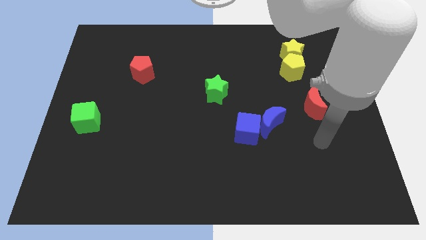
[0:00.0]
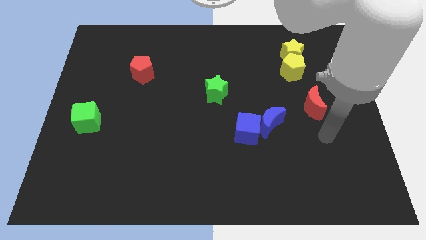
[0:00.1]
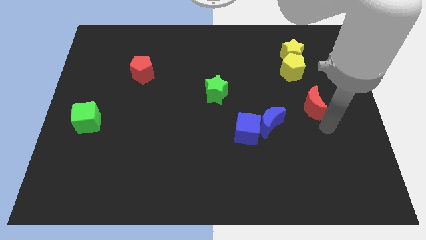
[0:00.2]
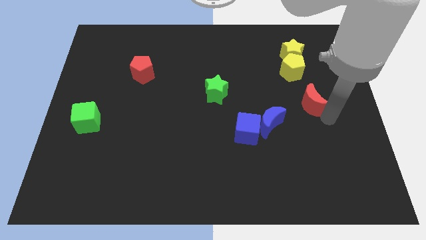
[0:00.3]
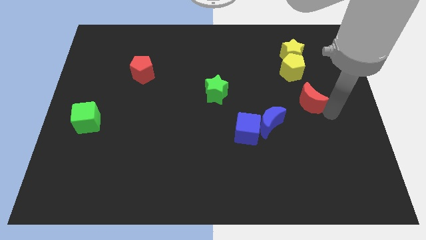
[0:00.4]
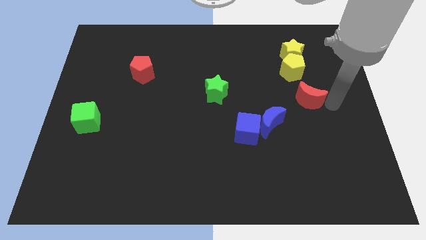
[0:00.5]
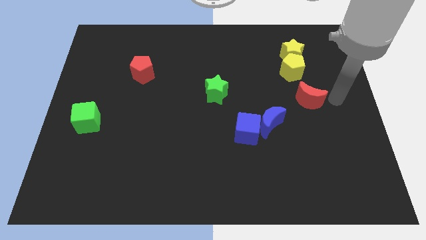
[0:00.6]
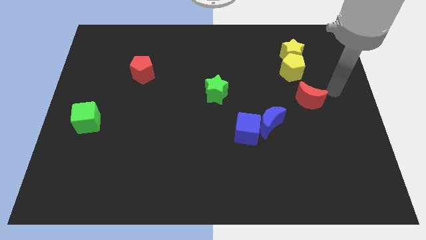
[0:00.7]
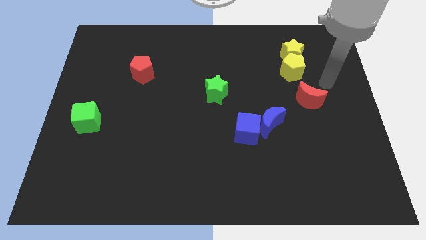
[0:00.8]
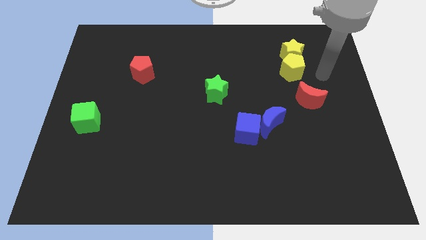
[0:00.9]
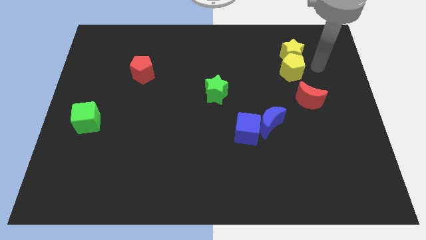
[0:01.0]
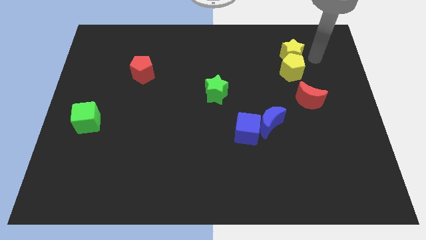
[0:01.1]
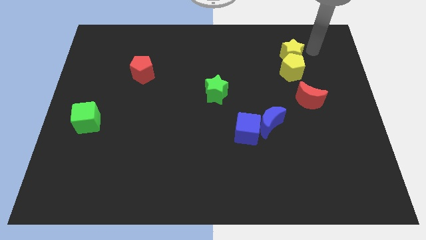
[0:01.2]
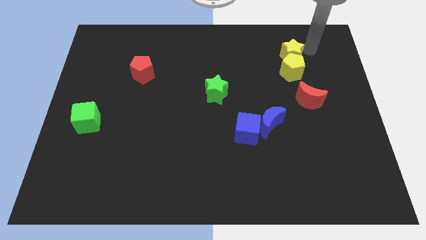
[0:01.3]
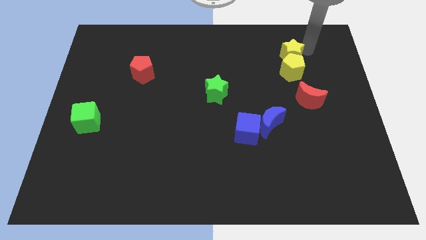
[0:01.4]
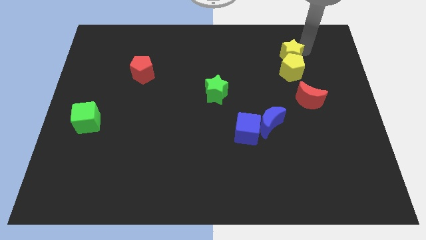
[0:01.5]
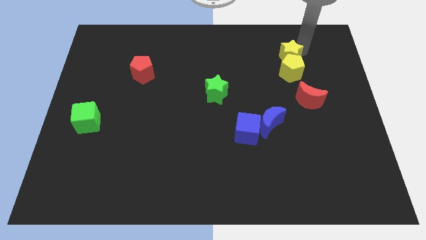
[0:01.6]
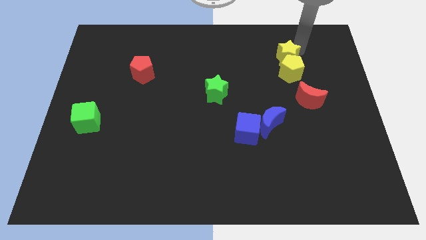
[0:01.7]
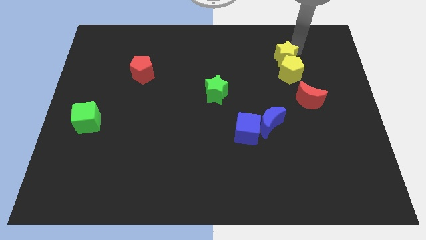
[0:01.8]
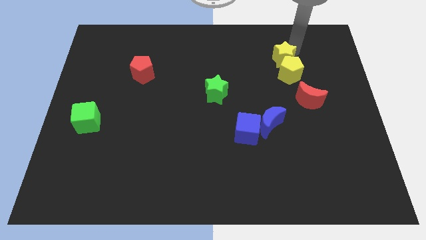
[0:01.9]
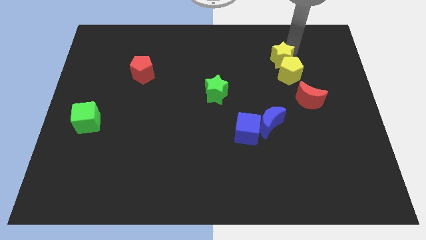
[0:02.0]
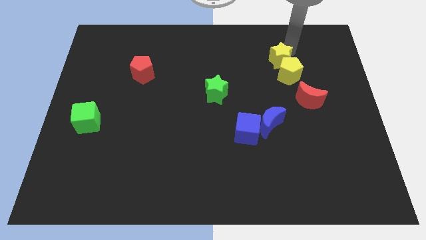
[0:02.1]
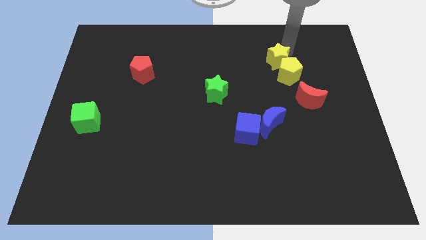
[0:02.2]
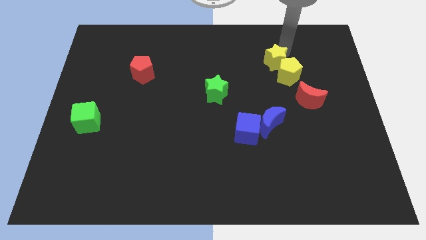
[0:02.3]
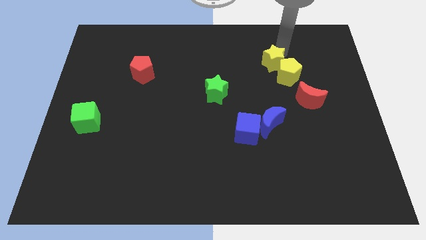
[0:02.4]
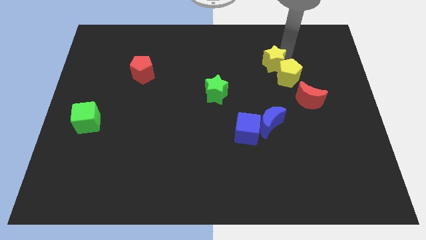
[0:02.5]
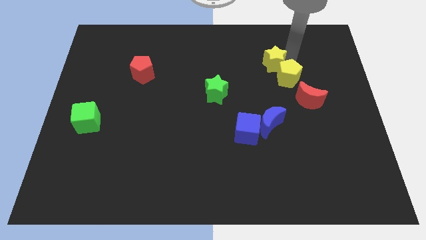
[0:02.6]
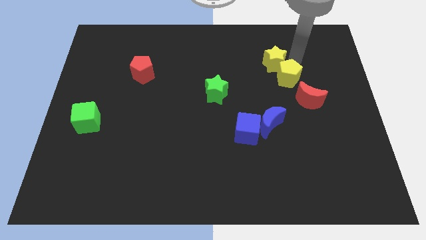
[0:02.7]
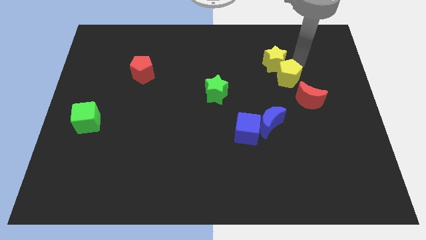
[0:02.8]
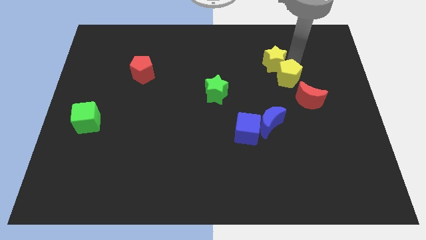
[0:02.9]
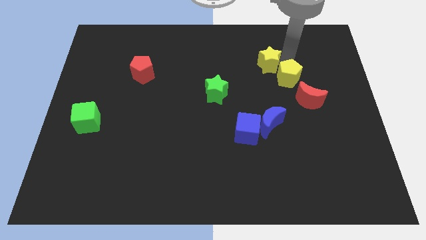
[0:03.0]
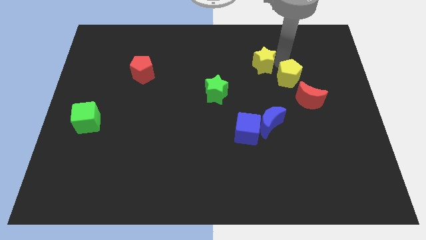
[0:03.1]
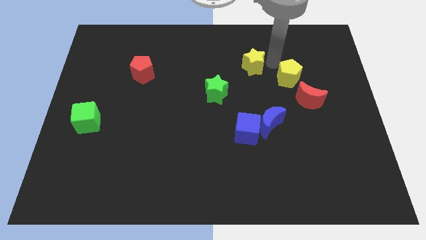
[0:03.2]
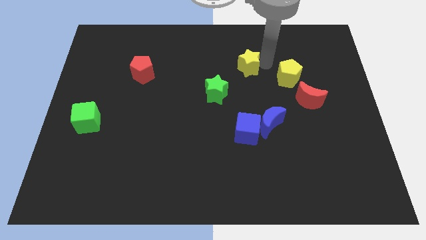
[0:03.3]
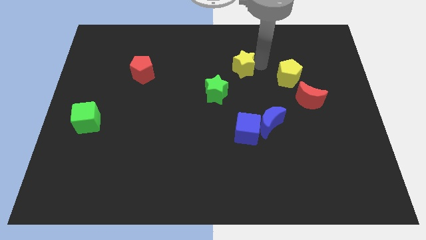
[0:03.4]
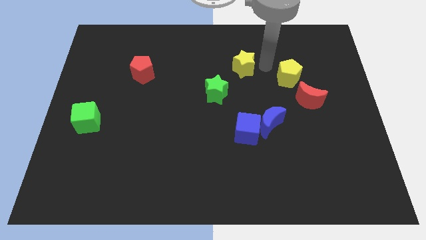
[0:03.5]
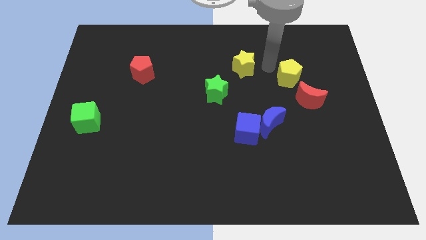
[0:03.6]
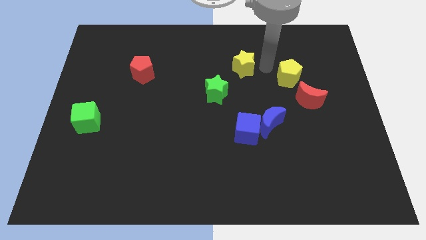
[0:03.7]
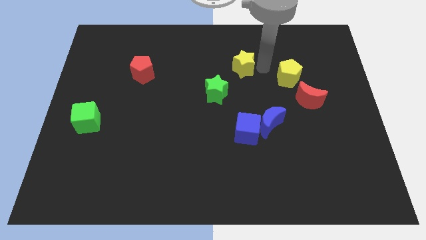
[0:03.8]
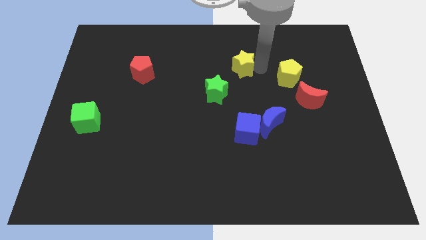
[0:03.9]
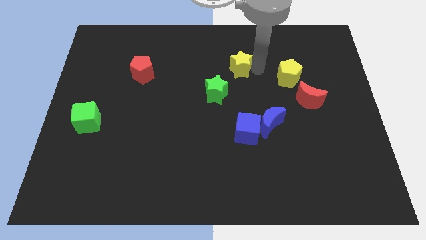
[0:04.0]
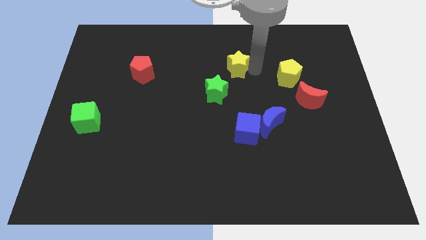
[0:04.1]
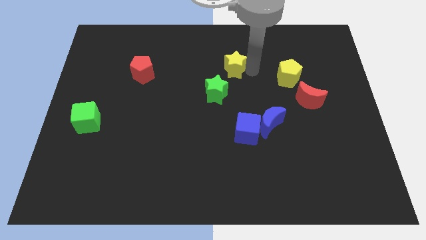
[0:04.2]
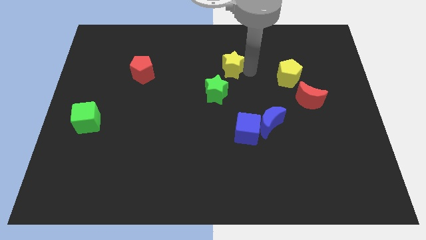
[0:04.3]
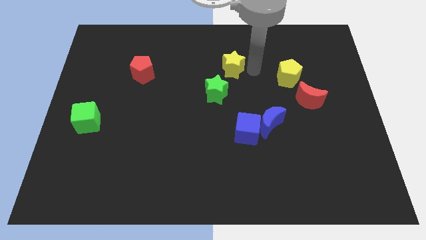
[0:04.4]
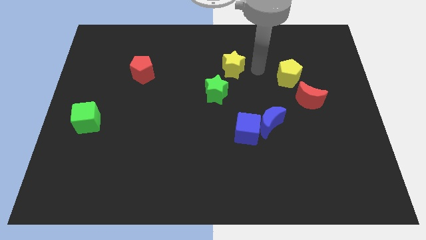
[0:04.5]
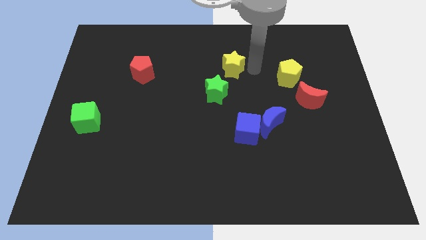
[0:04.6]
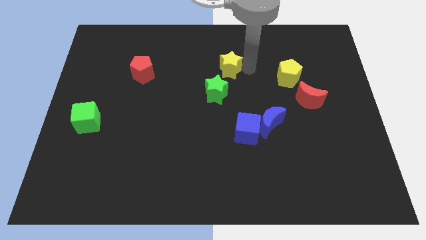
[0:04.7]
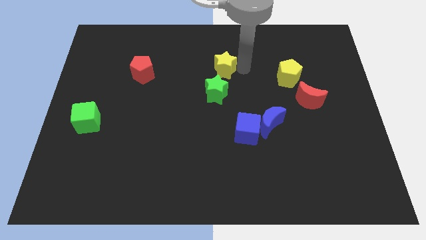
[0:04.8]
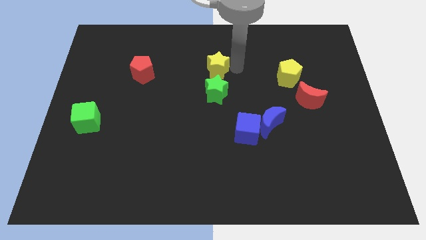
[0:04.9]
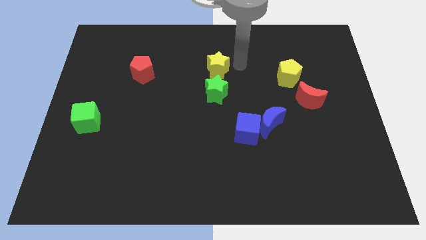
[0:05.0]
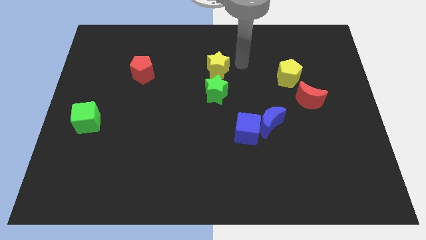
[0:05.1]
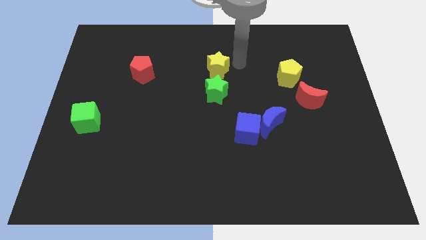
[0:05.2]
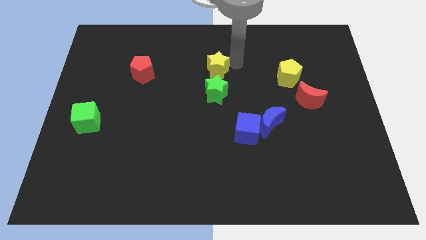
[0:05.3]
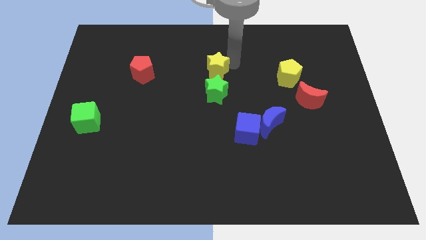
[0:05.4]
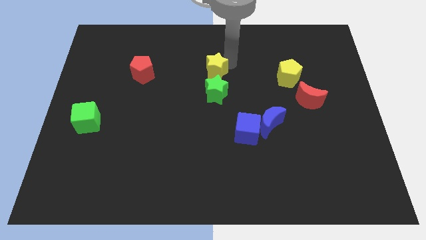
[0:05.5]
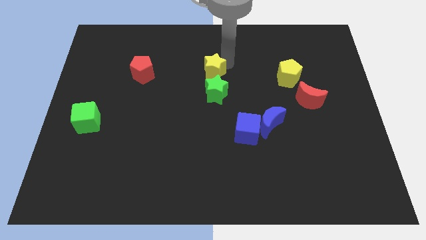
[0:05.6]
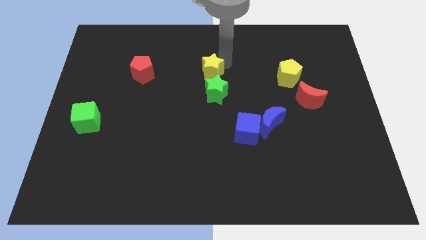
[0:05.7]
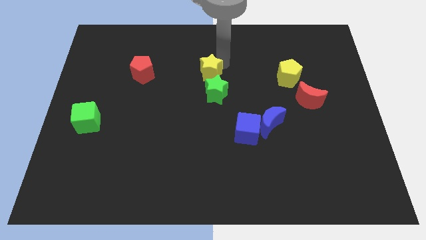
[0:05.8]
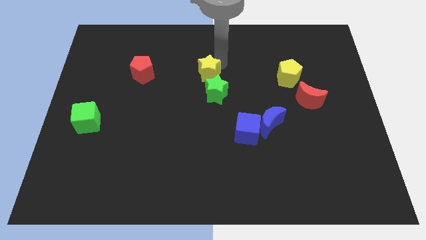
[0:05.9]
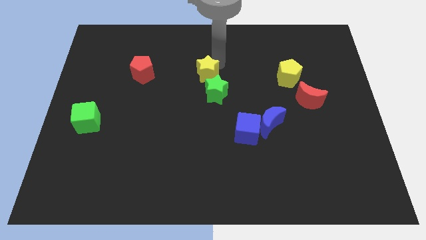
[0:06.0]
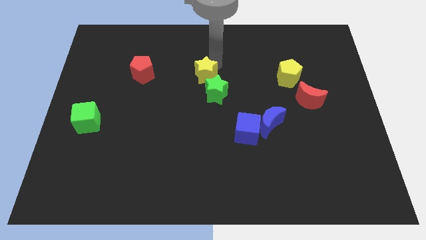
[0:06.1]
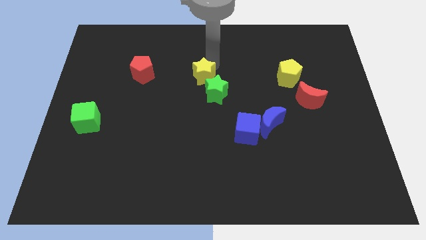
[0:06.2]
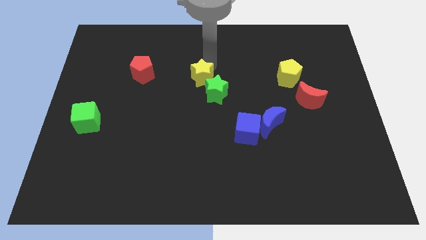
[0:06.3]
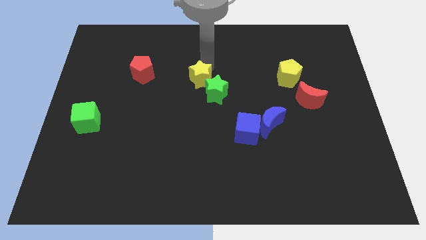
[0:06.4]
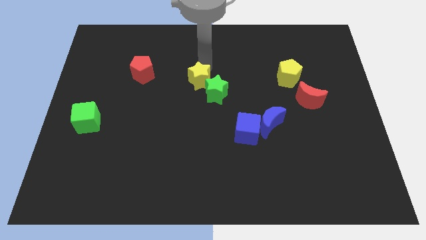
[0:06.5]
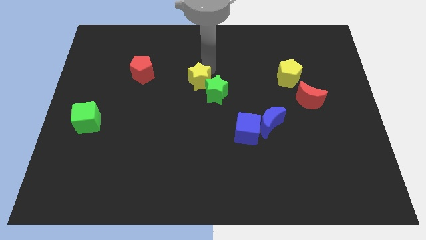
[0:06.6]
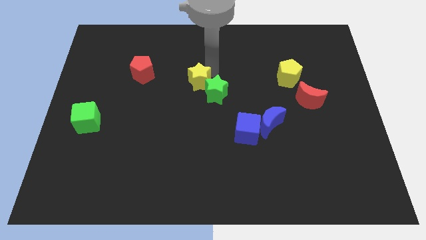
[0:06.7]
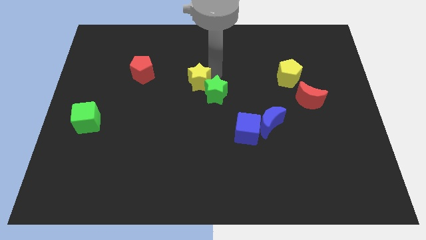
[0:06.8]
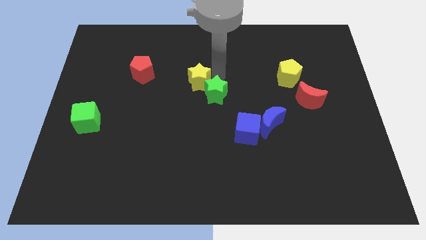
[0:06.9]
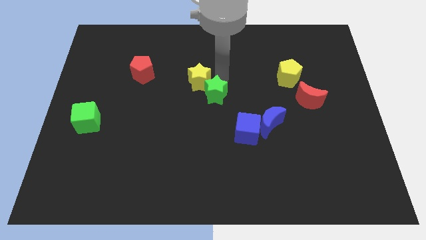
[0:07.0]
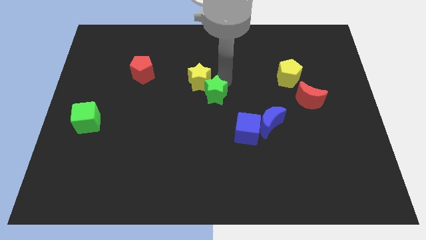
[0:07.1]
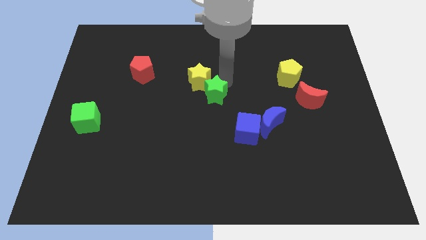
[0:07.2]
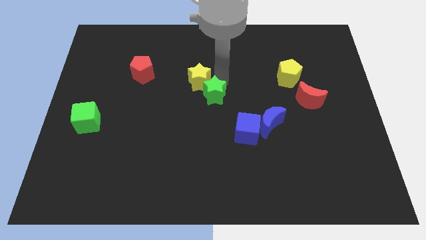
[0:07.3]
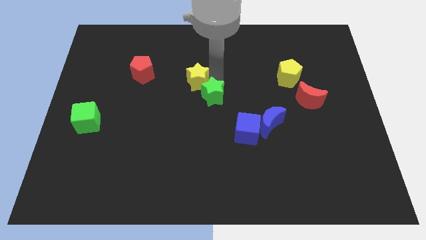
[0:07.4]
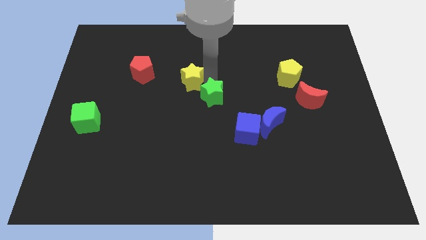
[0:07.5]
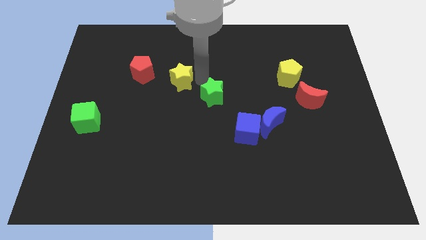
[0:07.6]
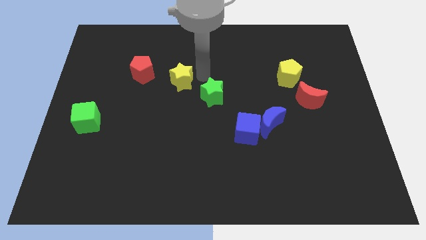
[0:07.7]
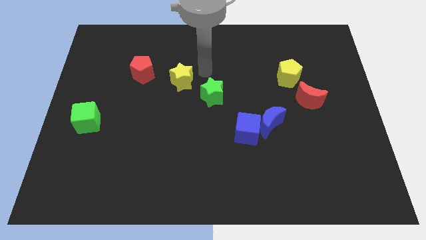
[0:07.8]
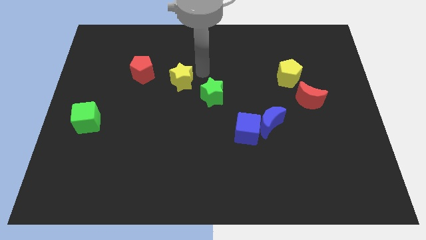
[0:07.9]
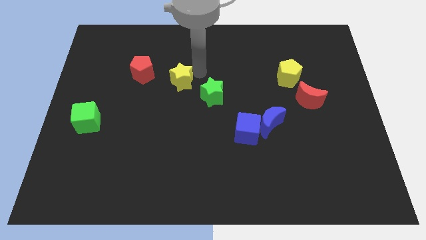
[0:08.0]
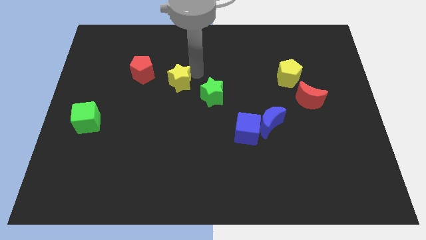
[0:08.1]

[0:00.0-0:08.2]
move the yellow star diagonally down and to the right of the red pentagon
